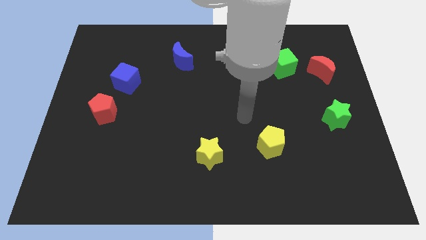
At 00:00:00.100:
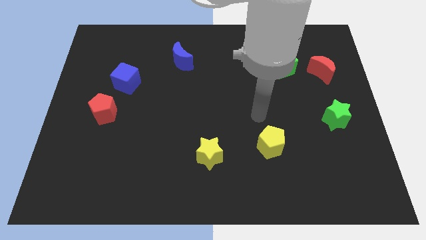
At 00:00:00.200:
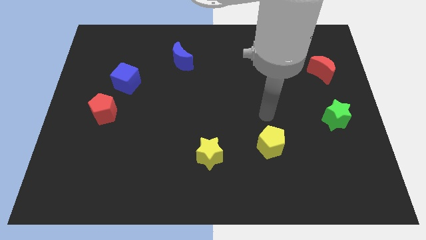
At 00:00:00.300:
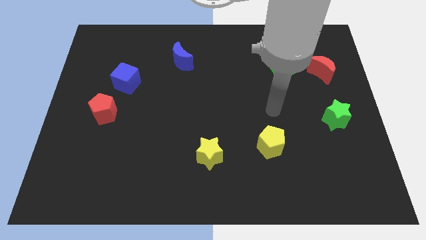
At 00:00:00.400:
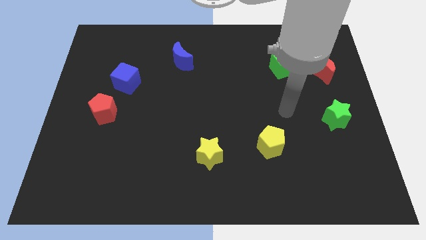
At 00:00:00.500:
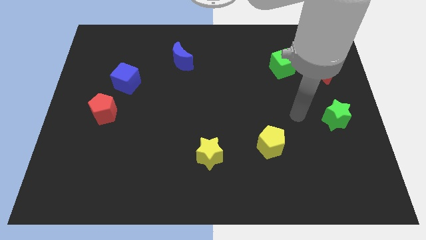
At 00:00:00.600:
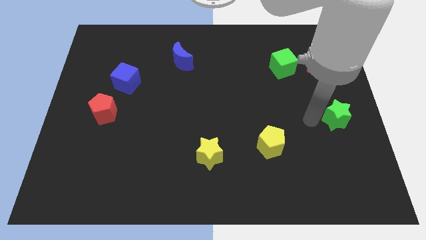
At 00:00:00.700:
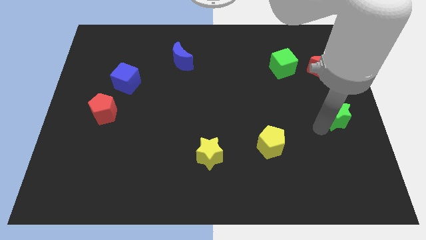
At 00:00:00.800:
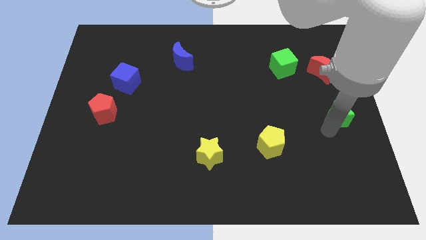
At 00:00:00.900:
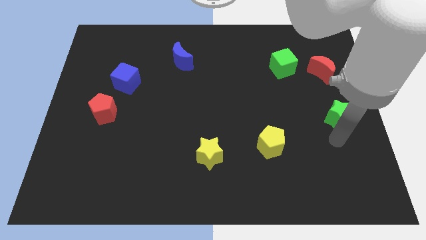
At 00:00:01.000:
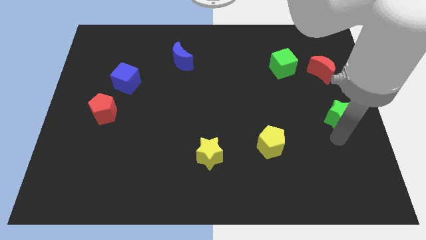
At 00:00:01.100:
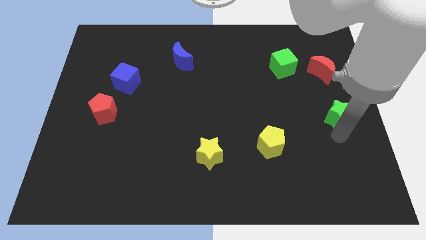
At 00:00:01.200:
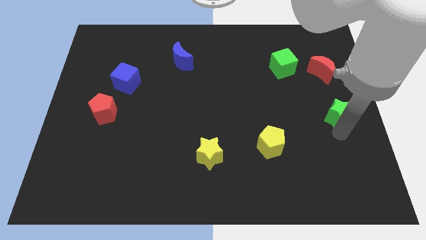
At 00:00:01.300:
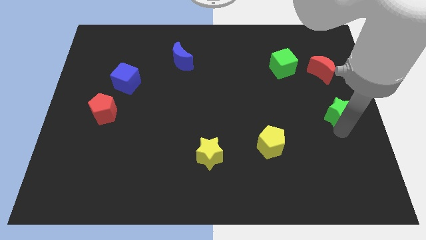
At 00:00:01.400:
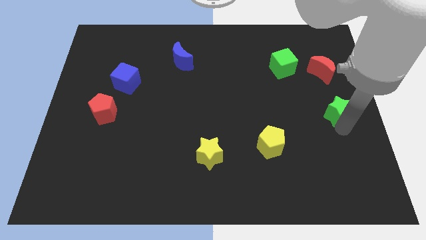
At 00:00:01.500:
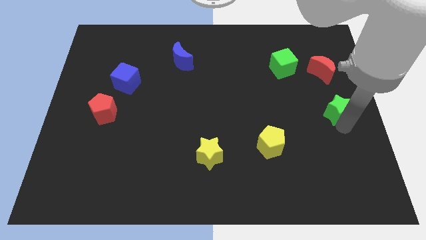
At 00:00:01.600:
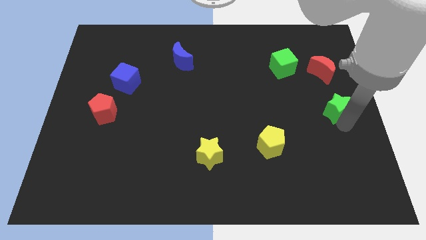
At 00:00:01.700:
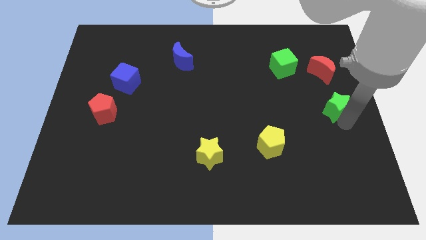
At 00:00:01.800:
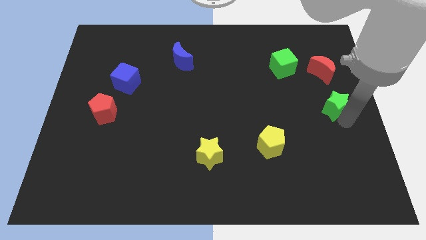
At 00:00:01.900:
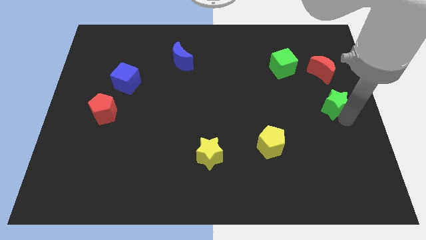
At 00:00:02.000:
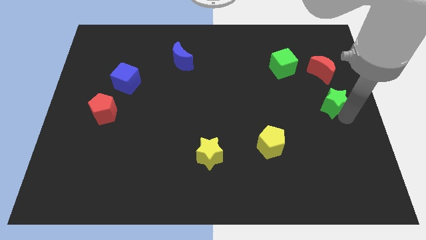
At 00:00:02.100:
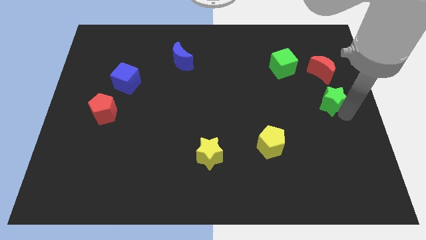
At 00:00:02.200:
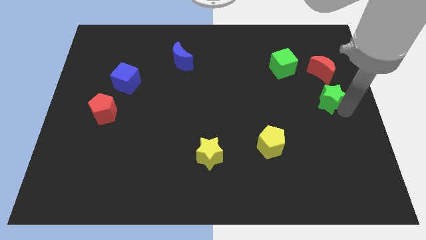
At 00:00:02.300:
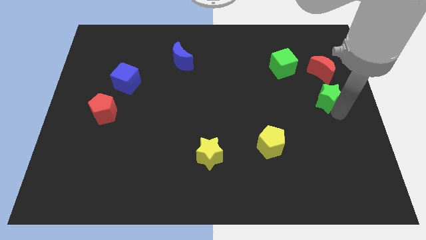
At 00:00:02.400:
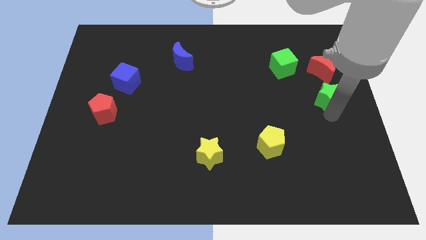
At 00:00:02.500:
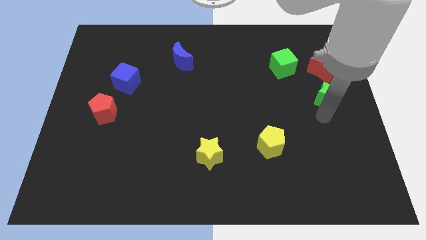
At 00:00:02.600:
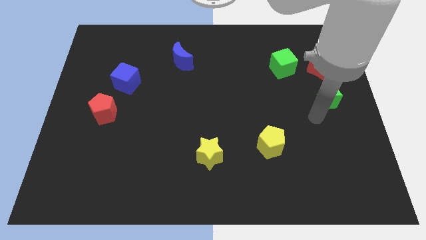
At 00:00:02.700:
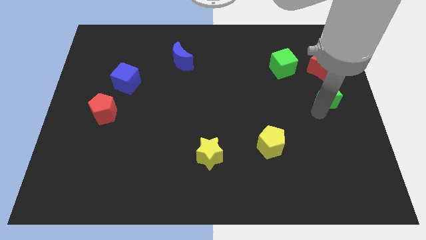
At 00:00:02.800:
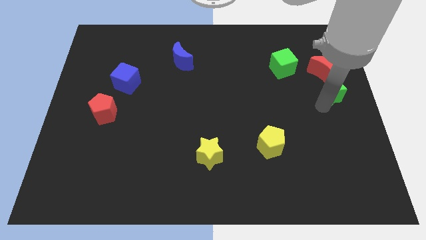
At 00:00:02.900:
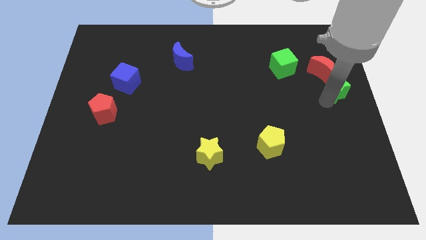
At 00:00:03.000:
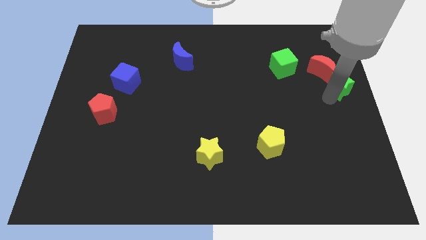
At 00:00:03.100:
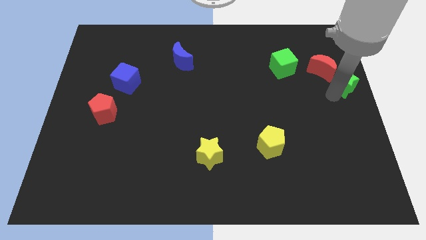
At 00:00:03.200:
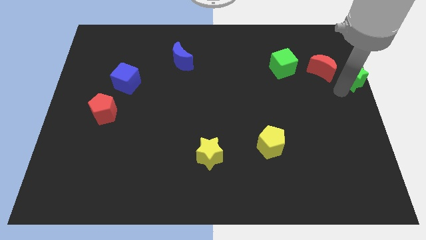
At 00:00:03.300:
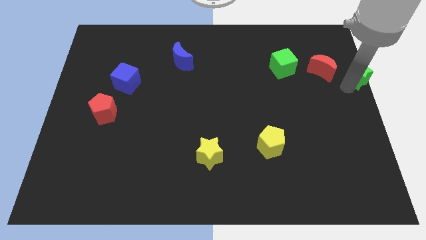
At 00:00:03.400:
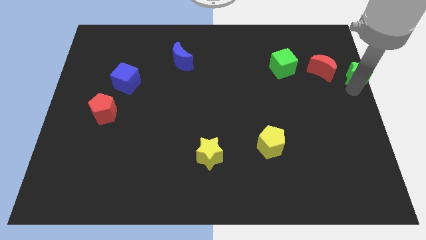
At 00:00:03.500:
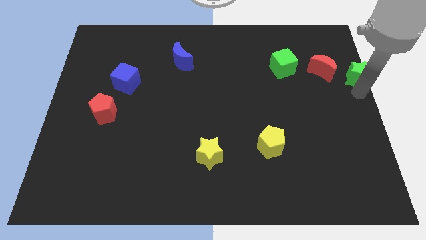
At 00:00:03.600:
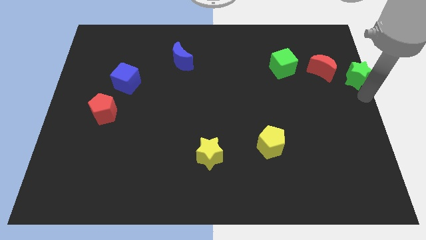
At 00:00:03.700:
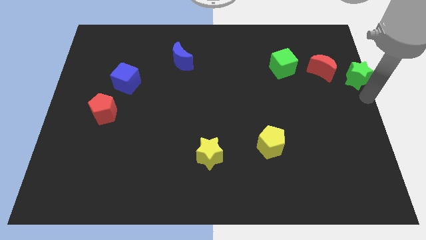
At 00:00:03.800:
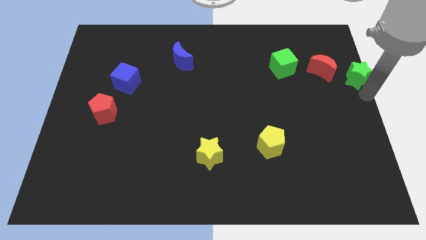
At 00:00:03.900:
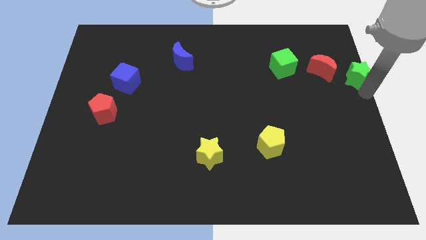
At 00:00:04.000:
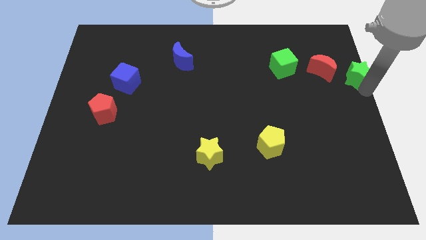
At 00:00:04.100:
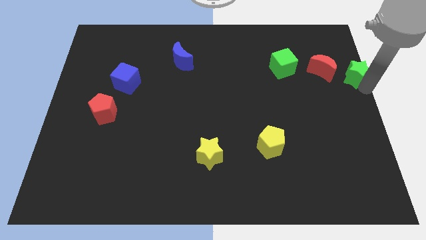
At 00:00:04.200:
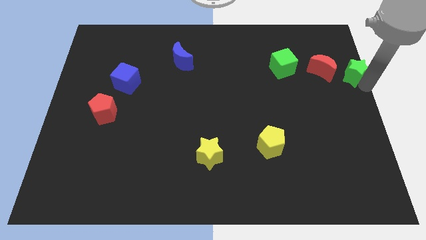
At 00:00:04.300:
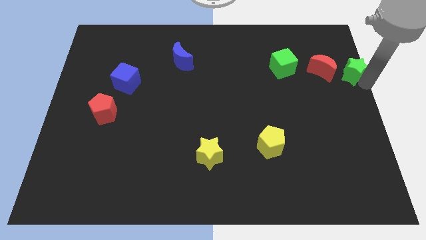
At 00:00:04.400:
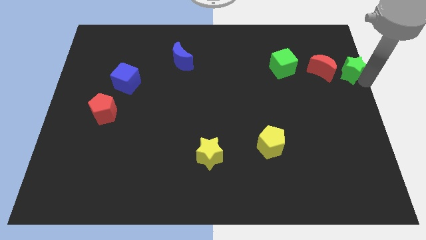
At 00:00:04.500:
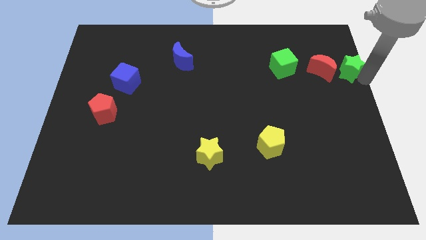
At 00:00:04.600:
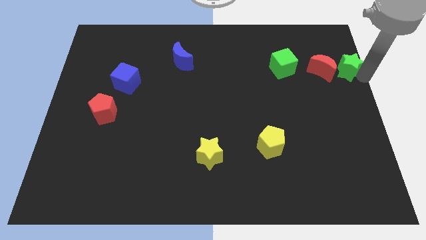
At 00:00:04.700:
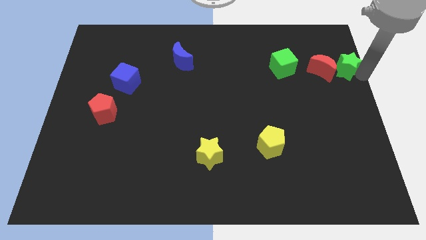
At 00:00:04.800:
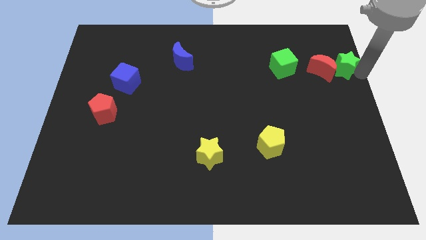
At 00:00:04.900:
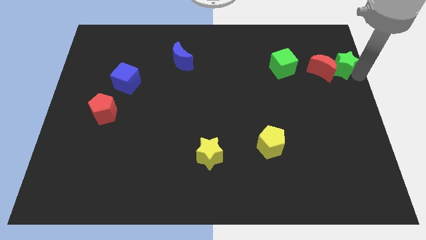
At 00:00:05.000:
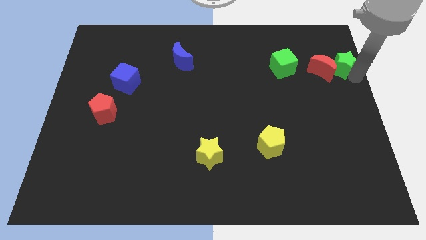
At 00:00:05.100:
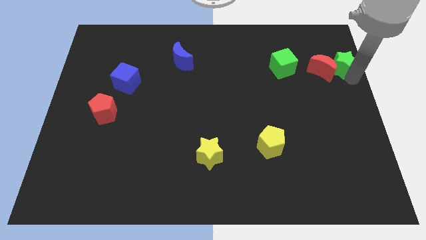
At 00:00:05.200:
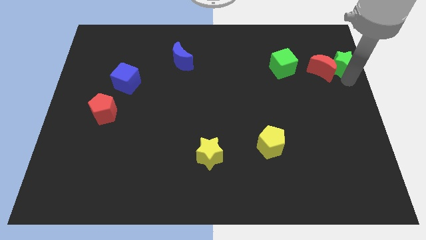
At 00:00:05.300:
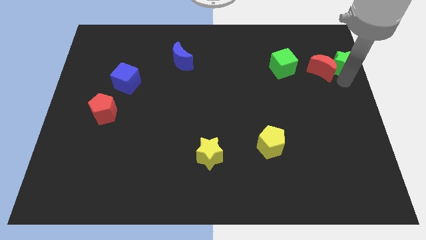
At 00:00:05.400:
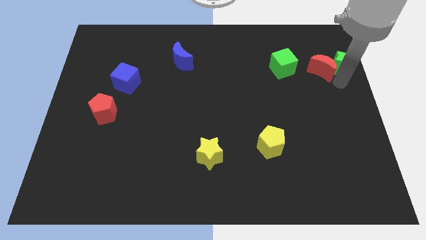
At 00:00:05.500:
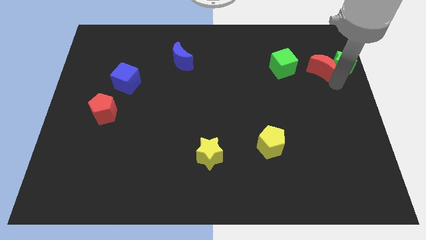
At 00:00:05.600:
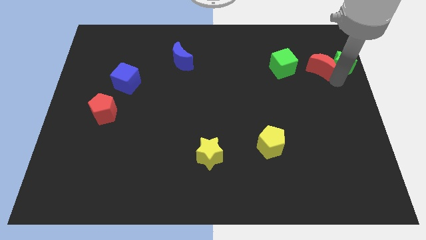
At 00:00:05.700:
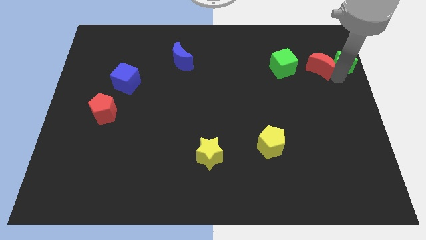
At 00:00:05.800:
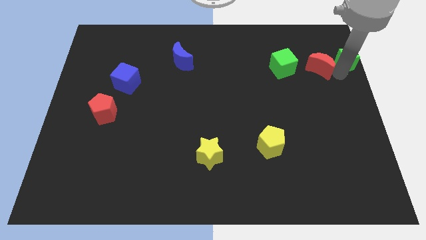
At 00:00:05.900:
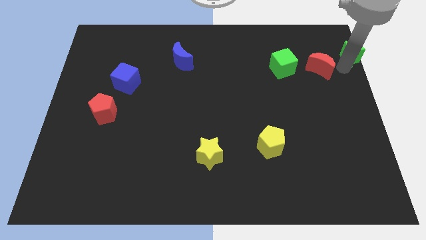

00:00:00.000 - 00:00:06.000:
put the green star to the top right
